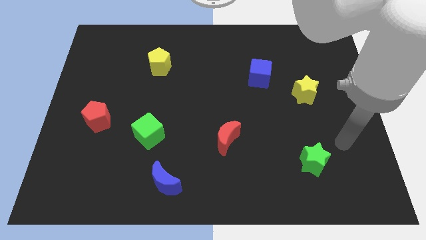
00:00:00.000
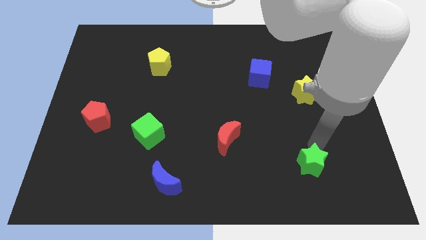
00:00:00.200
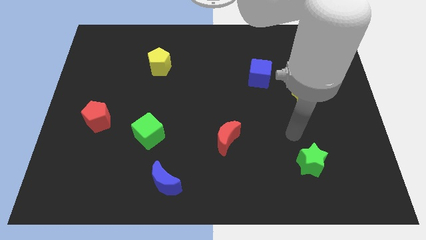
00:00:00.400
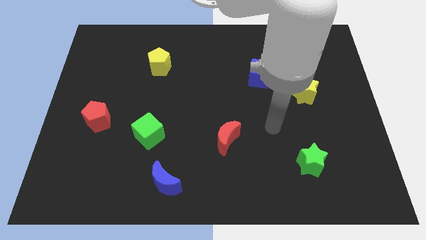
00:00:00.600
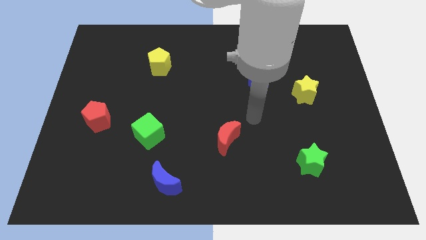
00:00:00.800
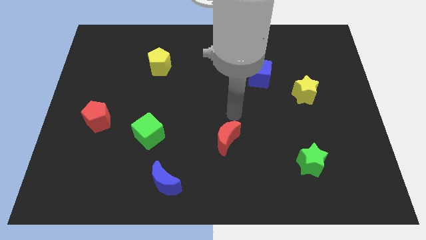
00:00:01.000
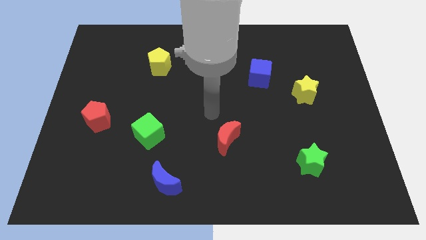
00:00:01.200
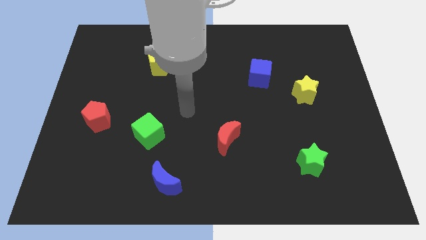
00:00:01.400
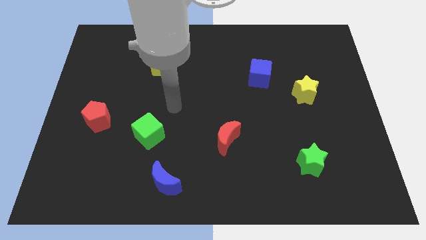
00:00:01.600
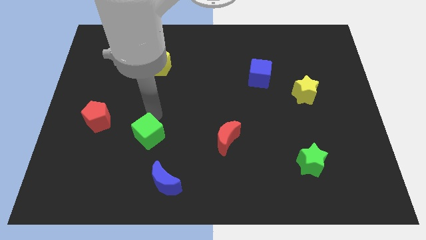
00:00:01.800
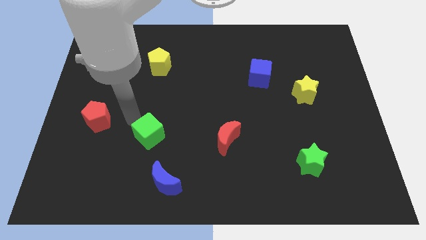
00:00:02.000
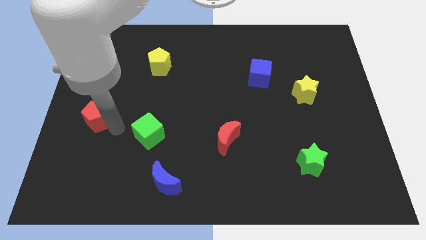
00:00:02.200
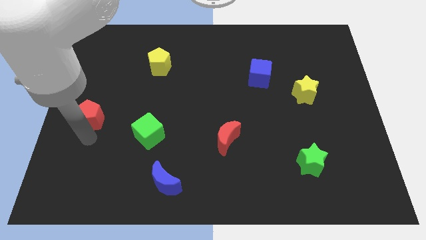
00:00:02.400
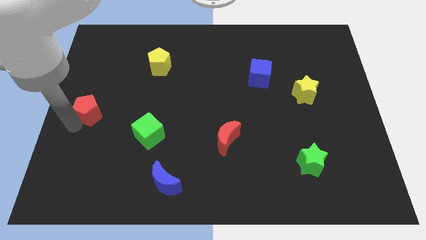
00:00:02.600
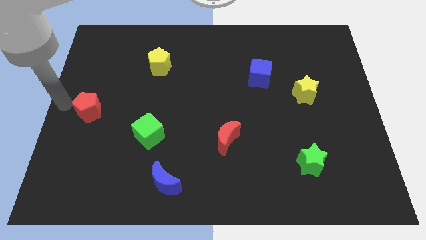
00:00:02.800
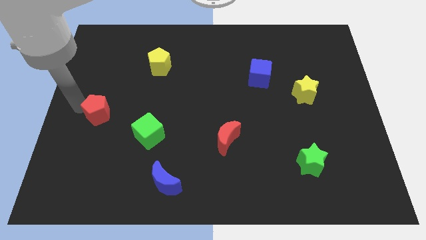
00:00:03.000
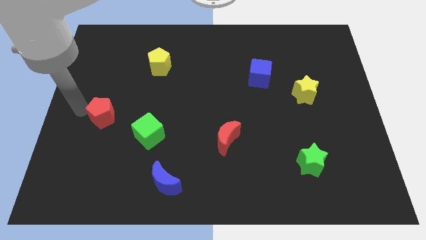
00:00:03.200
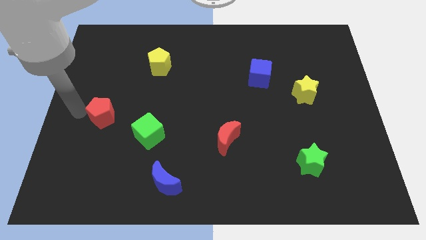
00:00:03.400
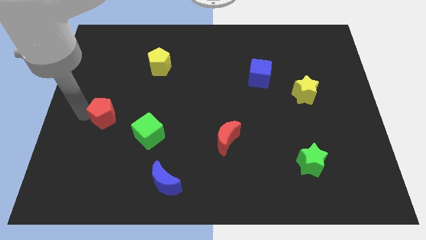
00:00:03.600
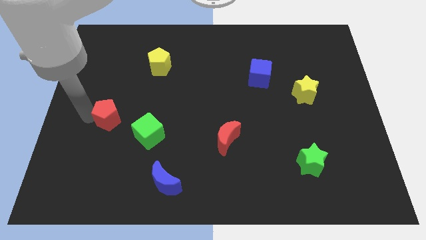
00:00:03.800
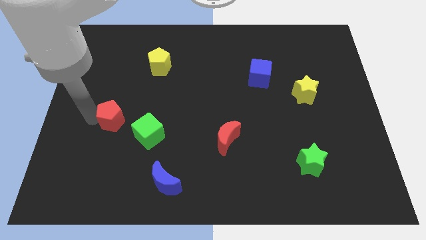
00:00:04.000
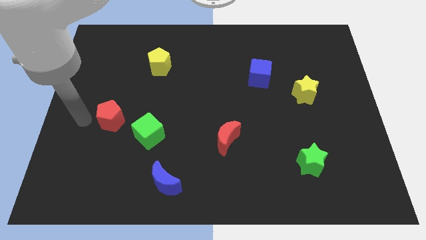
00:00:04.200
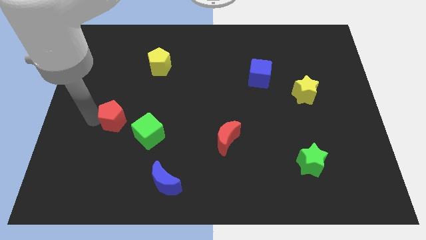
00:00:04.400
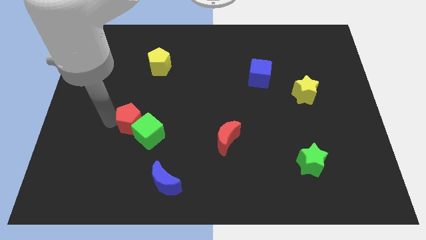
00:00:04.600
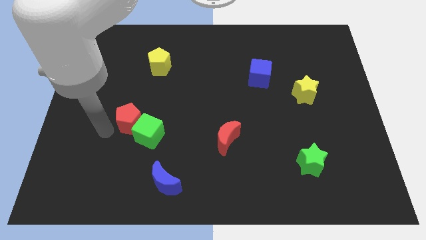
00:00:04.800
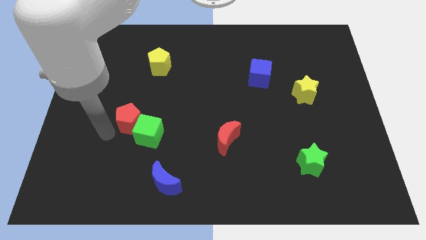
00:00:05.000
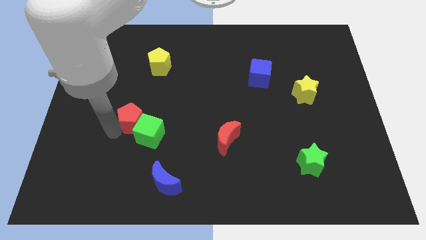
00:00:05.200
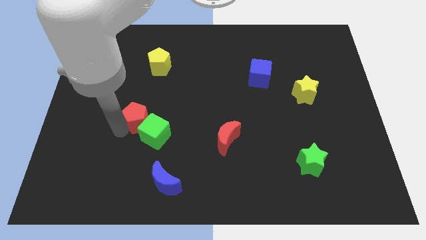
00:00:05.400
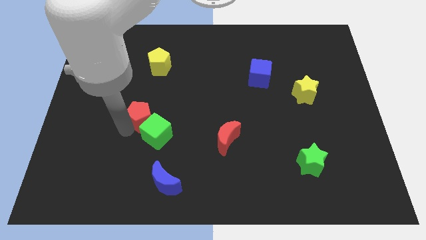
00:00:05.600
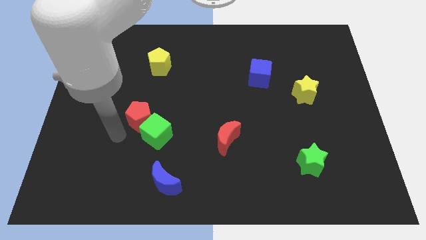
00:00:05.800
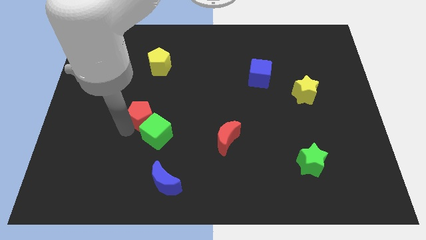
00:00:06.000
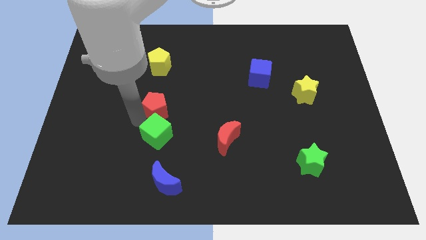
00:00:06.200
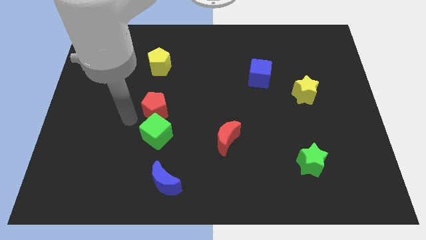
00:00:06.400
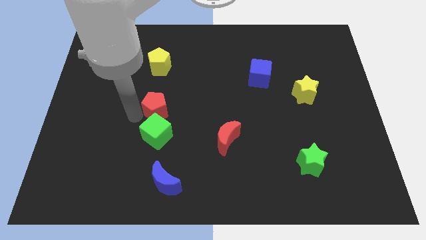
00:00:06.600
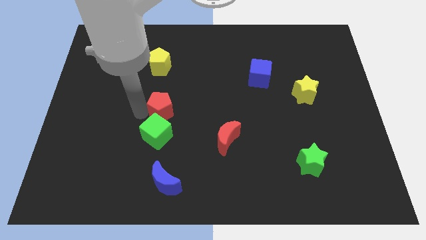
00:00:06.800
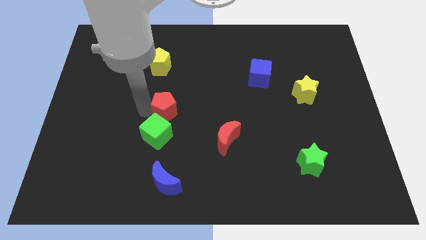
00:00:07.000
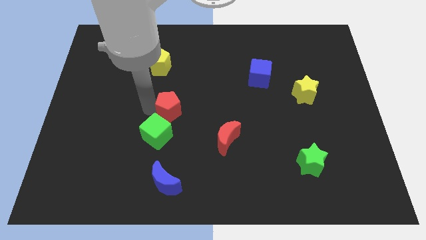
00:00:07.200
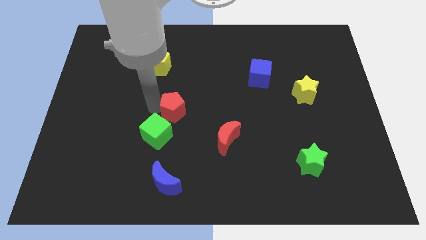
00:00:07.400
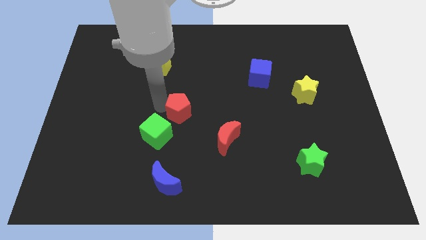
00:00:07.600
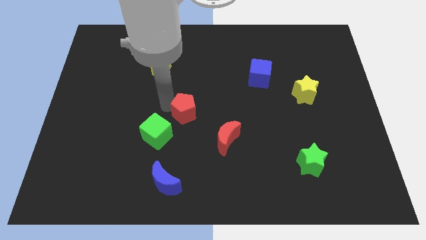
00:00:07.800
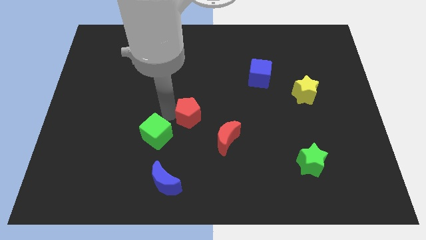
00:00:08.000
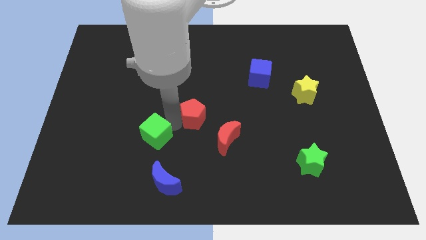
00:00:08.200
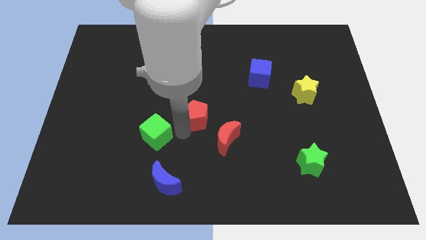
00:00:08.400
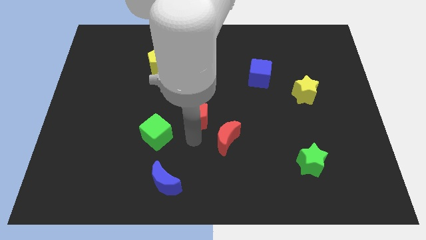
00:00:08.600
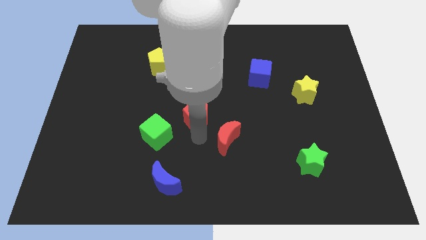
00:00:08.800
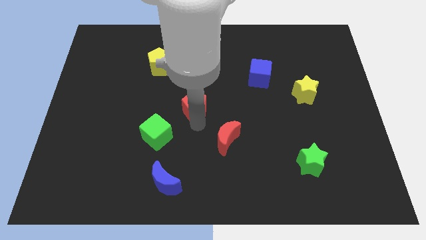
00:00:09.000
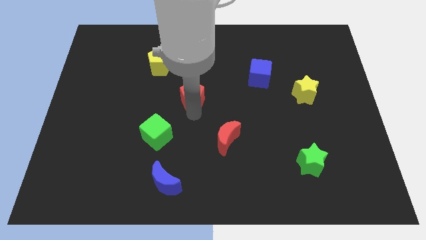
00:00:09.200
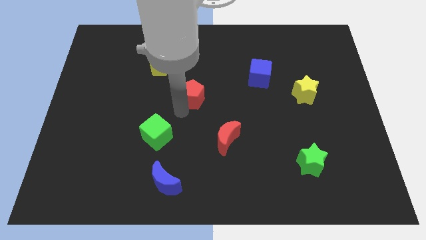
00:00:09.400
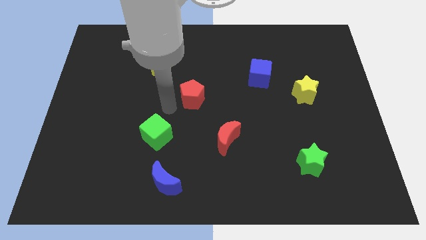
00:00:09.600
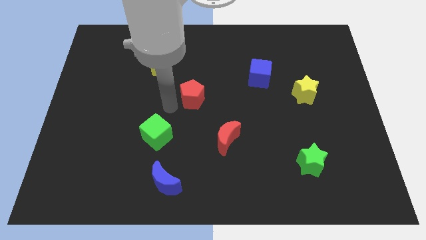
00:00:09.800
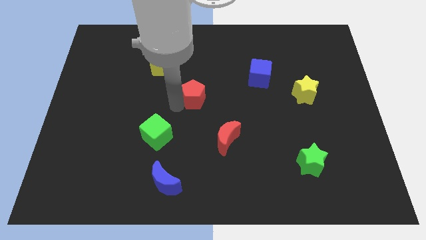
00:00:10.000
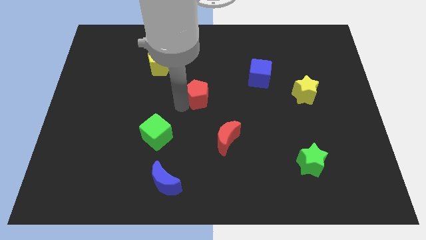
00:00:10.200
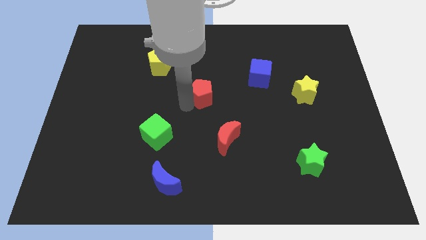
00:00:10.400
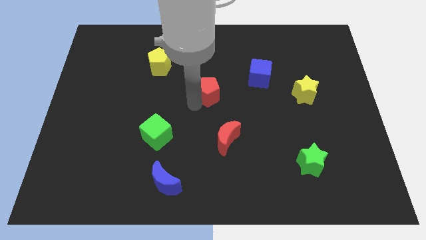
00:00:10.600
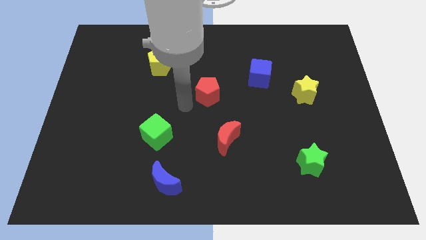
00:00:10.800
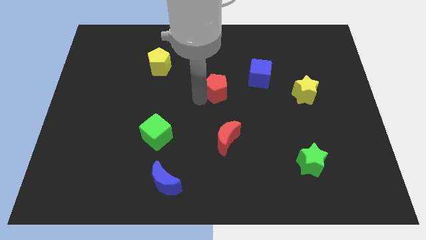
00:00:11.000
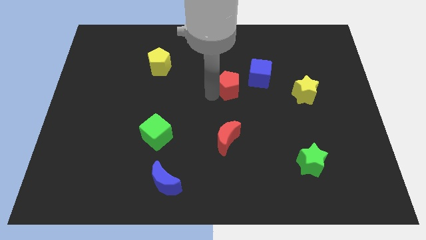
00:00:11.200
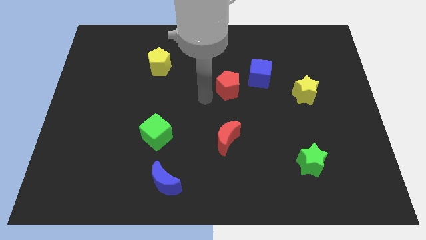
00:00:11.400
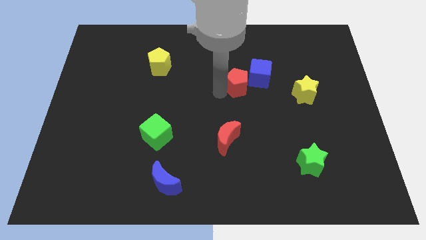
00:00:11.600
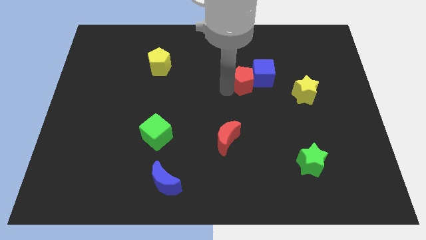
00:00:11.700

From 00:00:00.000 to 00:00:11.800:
move the red pentagon close to the blue cube

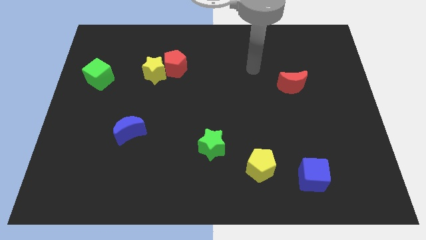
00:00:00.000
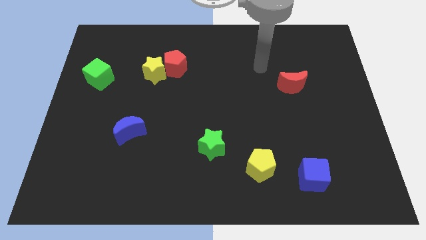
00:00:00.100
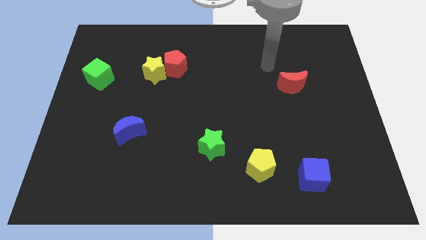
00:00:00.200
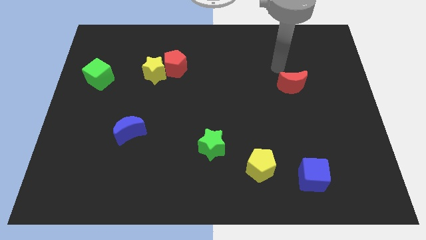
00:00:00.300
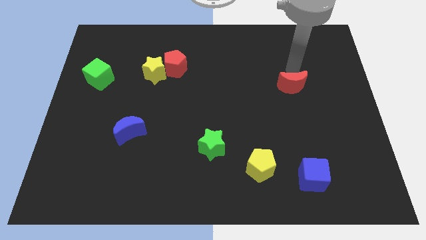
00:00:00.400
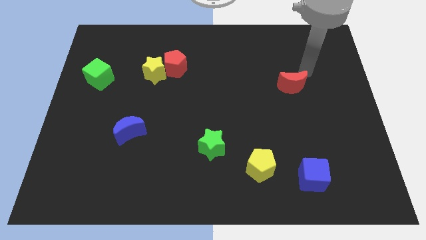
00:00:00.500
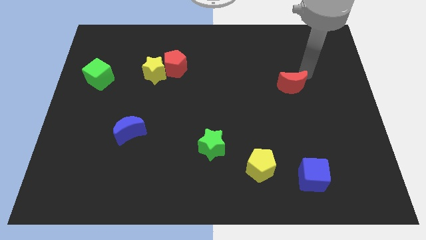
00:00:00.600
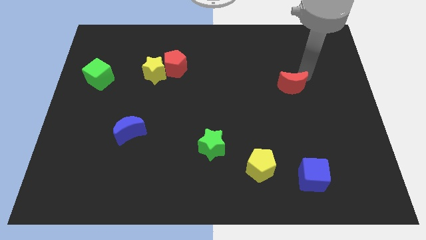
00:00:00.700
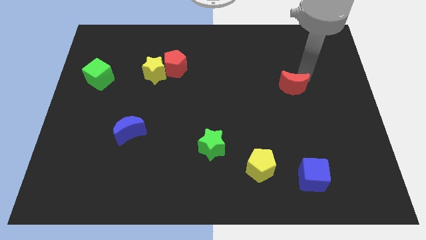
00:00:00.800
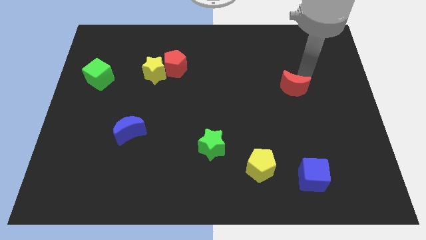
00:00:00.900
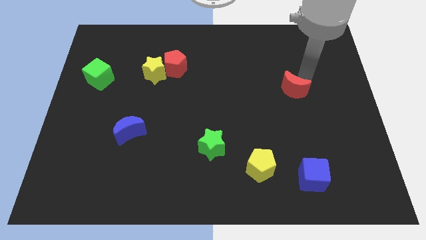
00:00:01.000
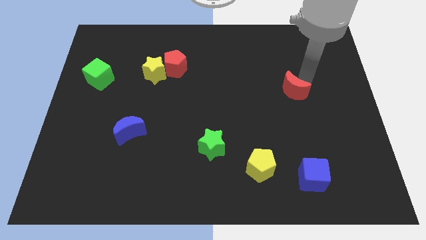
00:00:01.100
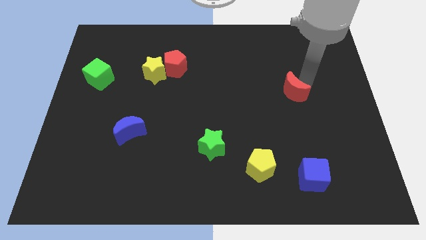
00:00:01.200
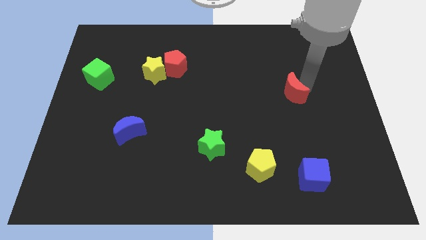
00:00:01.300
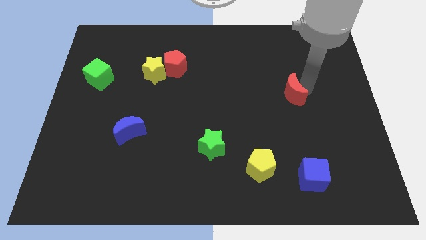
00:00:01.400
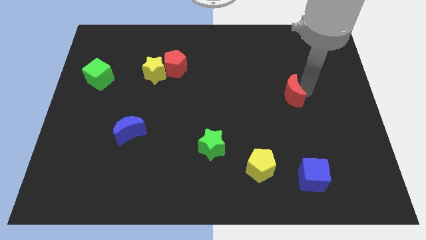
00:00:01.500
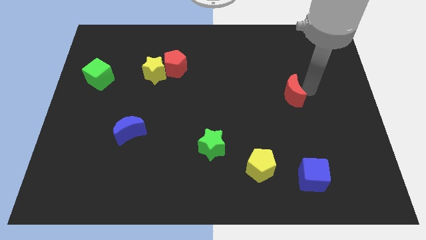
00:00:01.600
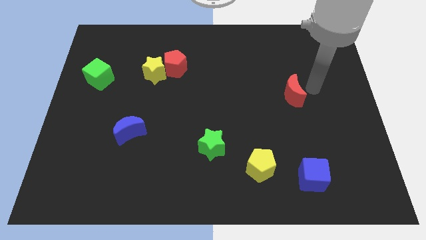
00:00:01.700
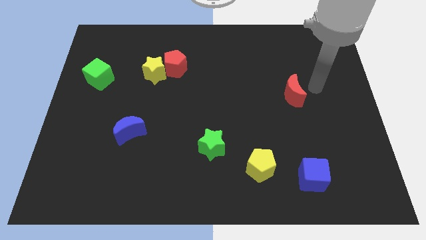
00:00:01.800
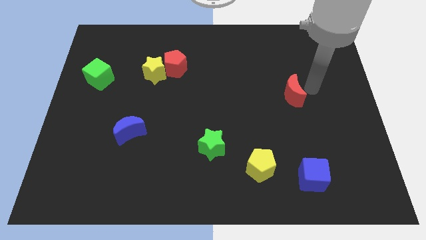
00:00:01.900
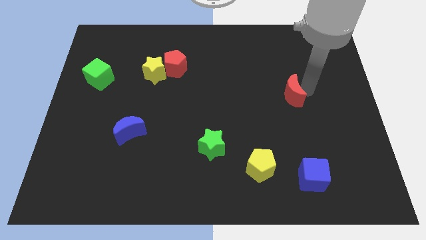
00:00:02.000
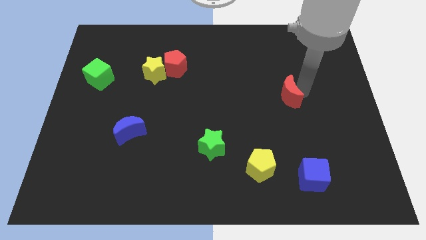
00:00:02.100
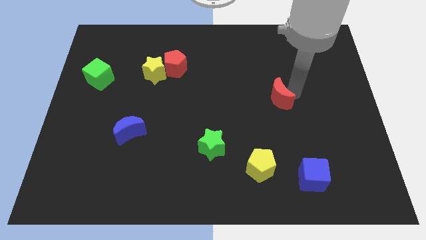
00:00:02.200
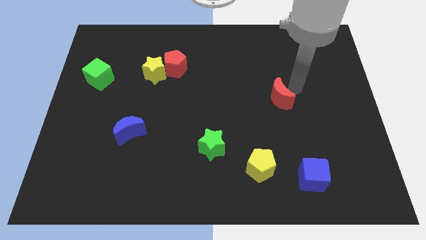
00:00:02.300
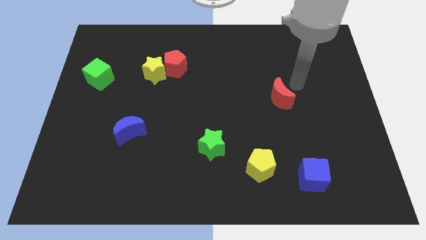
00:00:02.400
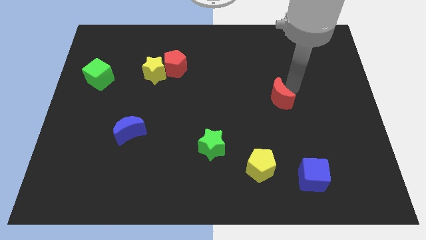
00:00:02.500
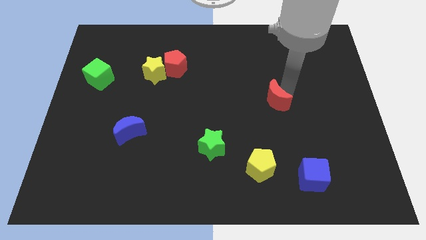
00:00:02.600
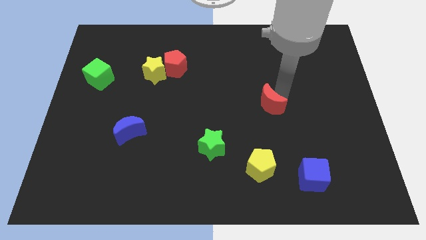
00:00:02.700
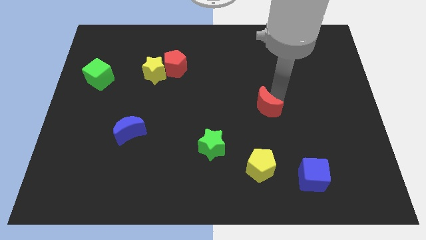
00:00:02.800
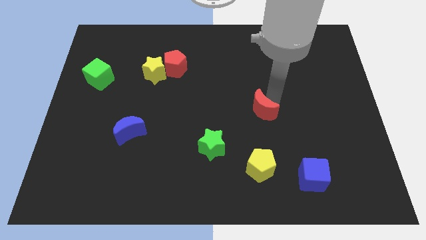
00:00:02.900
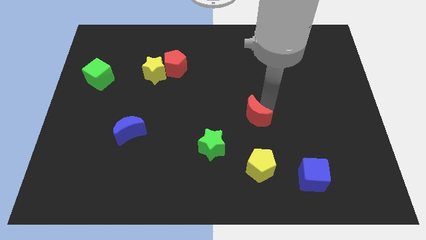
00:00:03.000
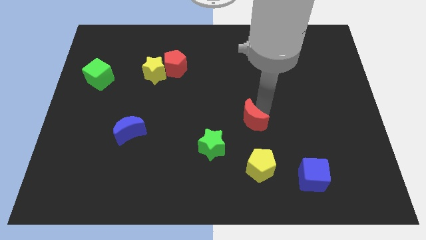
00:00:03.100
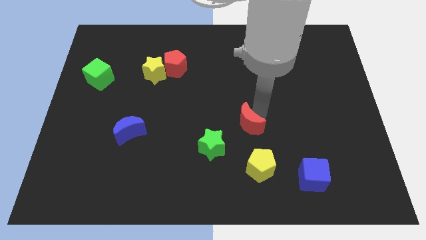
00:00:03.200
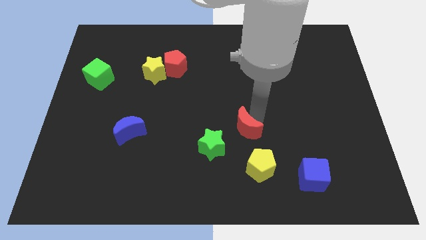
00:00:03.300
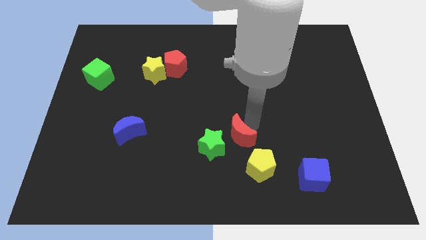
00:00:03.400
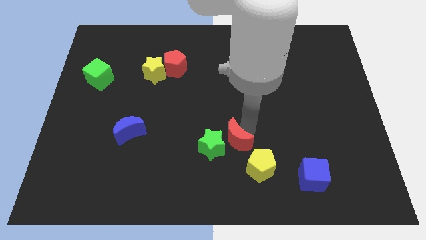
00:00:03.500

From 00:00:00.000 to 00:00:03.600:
push the red moon to the green star
